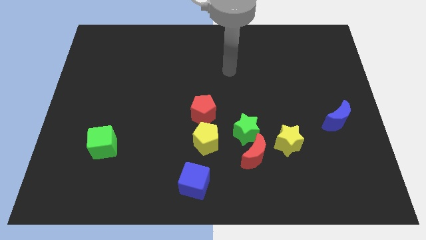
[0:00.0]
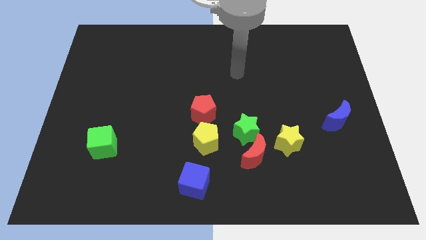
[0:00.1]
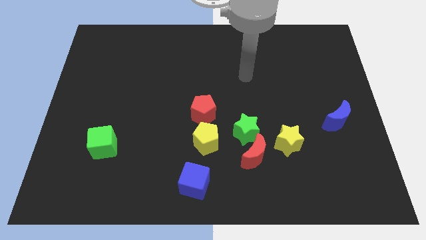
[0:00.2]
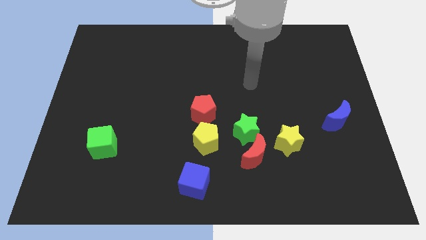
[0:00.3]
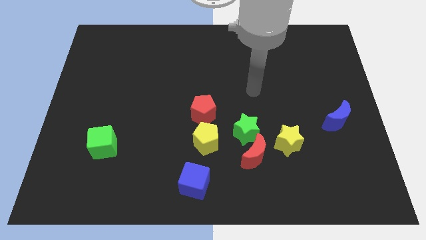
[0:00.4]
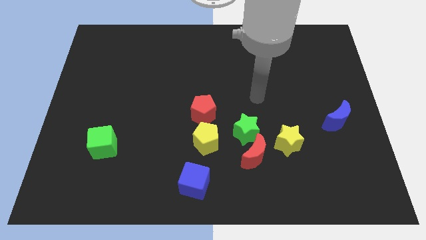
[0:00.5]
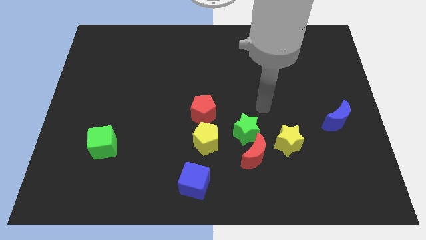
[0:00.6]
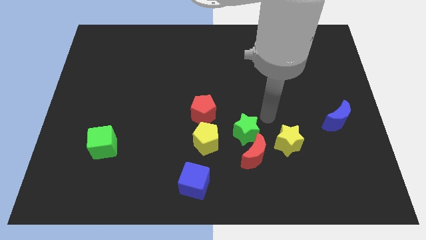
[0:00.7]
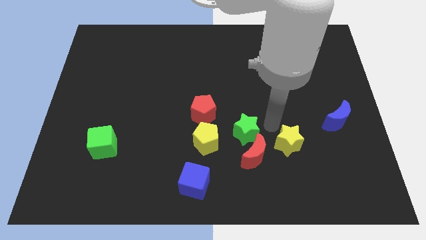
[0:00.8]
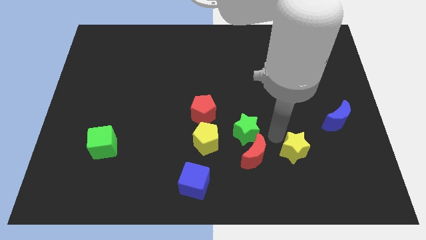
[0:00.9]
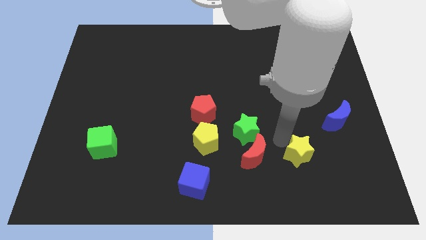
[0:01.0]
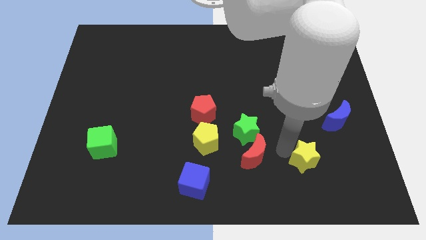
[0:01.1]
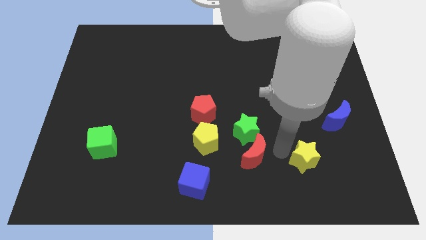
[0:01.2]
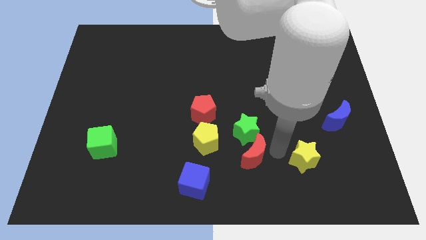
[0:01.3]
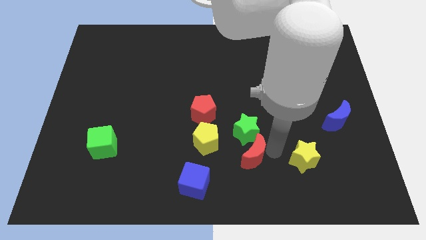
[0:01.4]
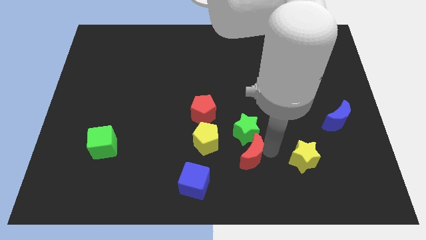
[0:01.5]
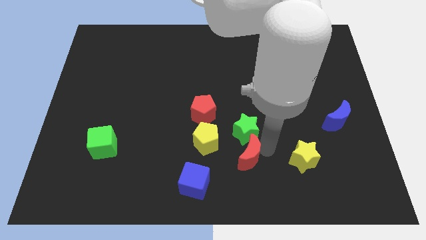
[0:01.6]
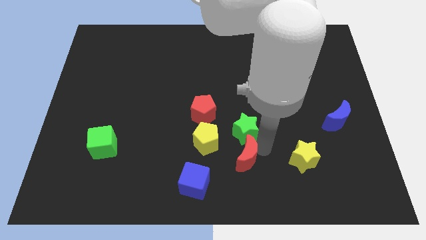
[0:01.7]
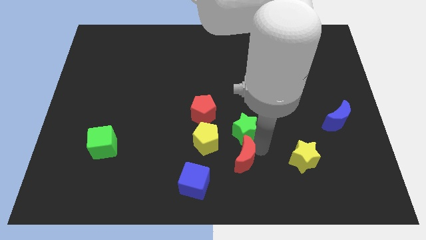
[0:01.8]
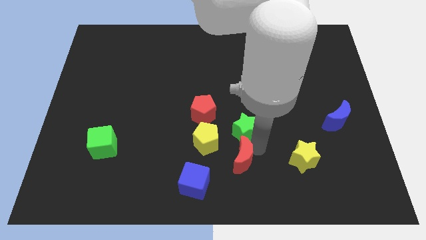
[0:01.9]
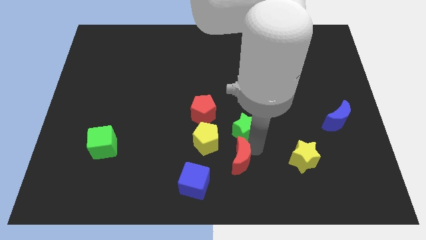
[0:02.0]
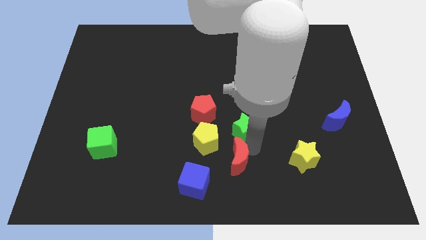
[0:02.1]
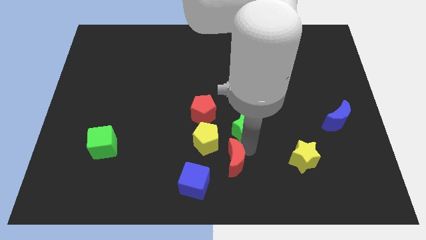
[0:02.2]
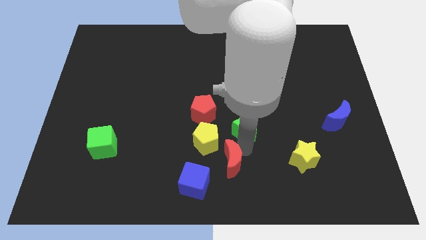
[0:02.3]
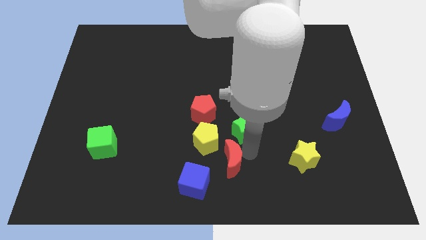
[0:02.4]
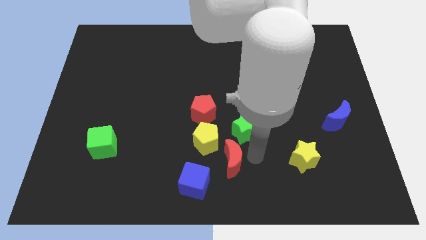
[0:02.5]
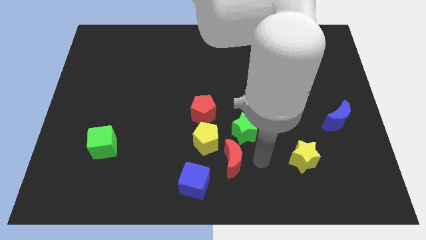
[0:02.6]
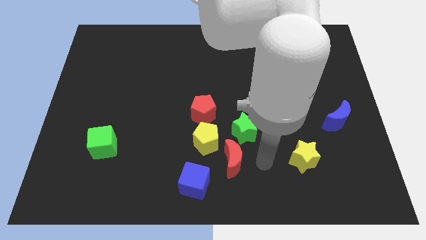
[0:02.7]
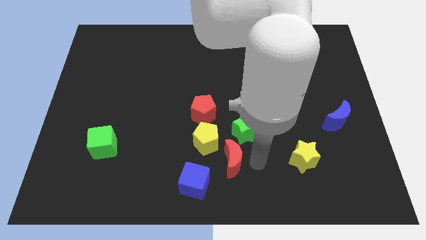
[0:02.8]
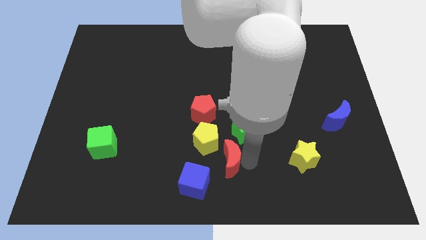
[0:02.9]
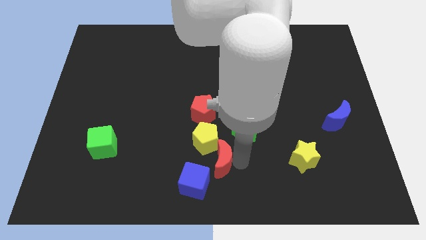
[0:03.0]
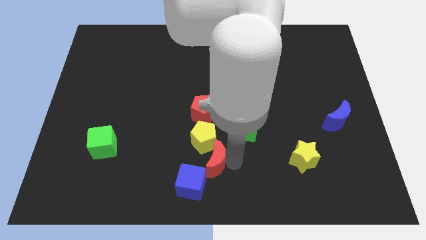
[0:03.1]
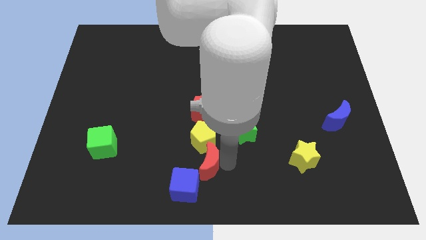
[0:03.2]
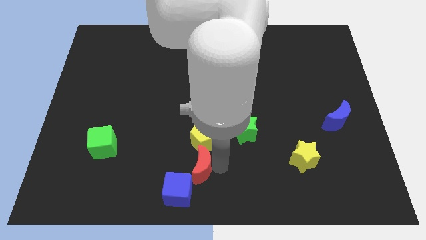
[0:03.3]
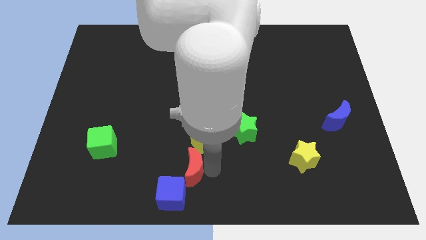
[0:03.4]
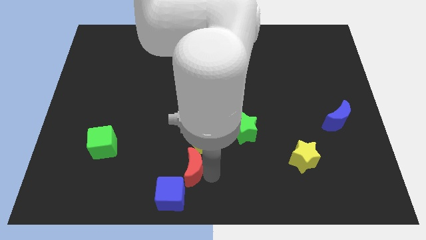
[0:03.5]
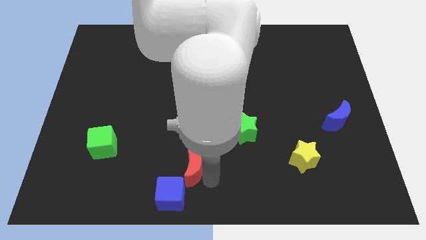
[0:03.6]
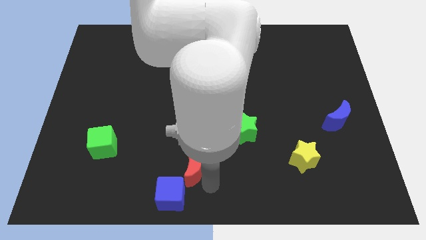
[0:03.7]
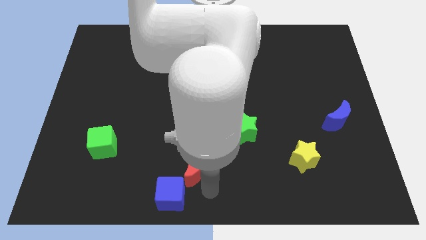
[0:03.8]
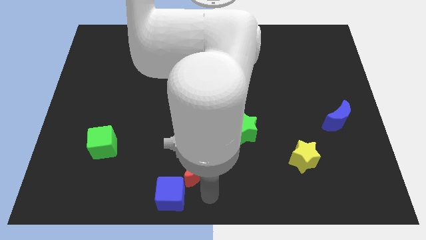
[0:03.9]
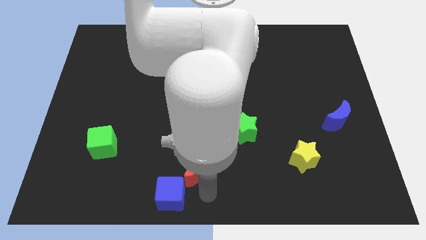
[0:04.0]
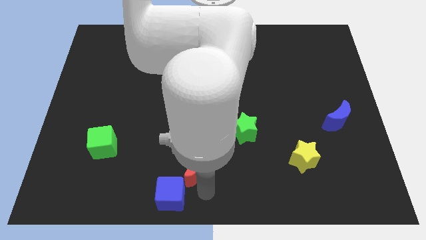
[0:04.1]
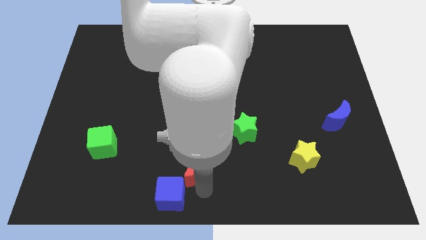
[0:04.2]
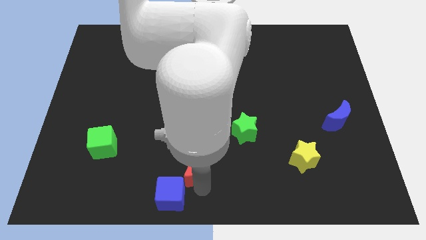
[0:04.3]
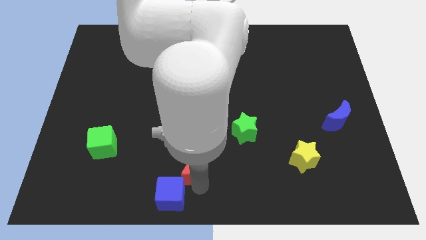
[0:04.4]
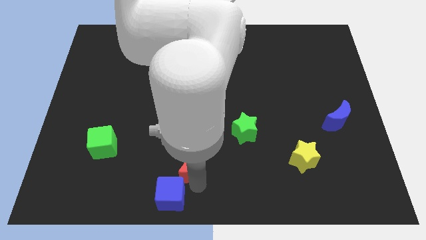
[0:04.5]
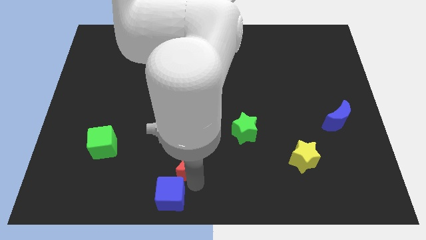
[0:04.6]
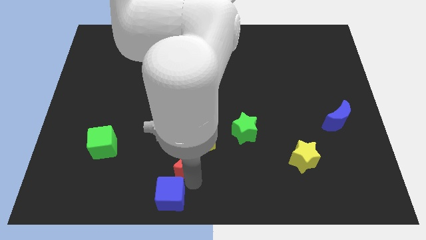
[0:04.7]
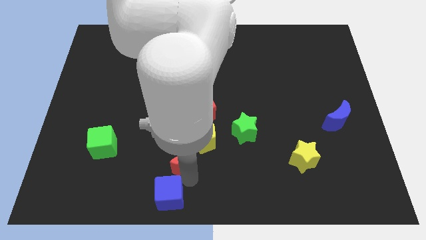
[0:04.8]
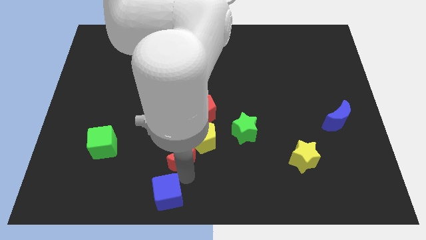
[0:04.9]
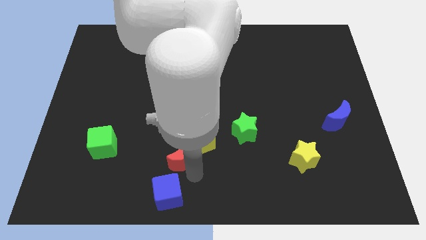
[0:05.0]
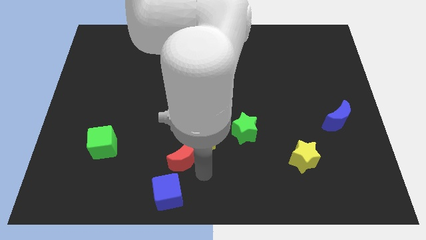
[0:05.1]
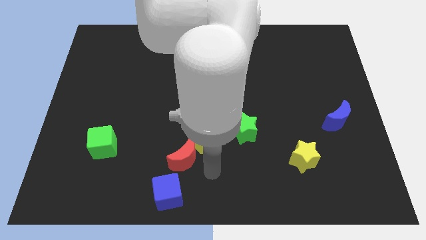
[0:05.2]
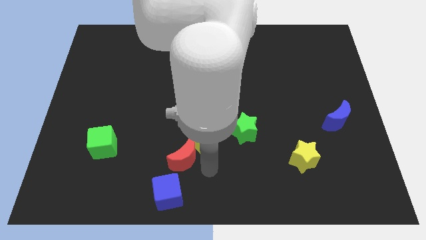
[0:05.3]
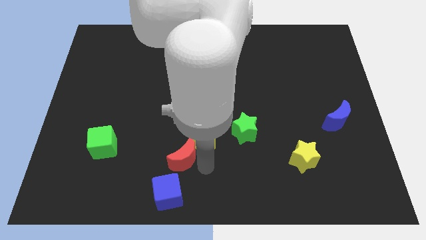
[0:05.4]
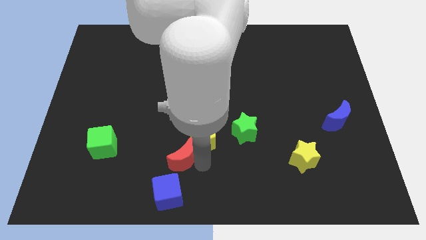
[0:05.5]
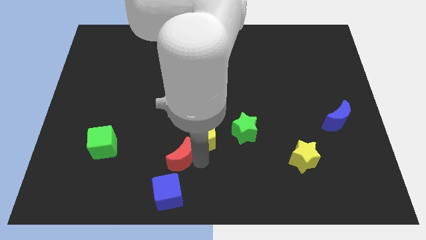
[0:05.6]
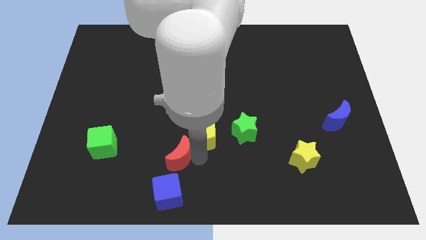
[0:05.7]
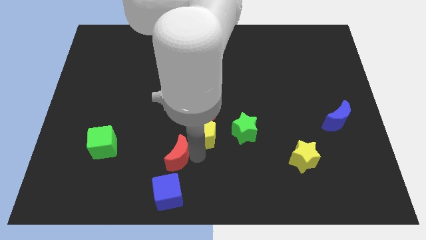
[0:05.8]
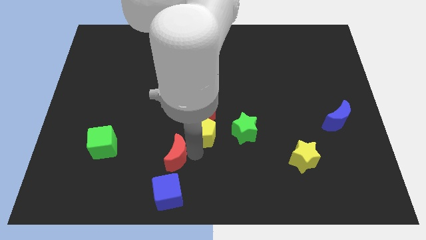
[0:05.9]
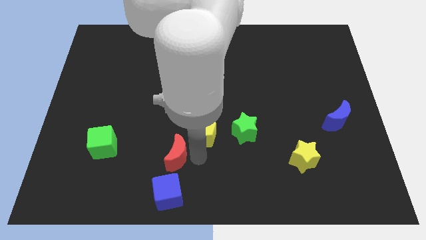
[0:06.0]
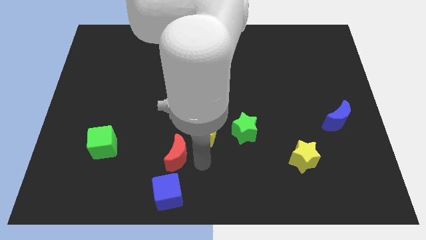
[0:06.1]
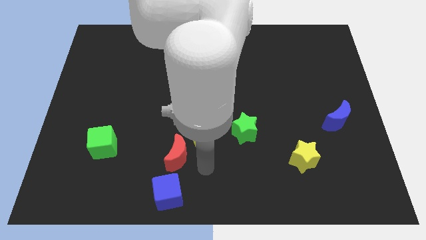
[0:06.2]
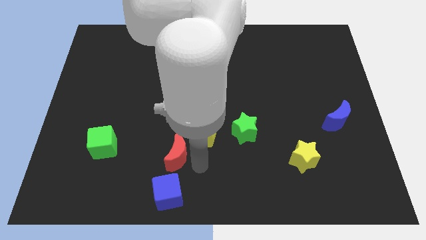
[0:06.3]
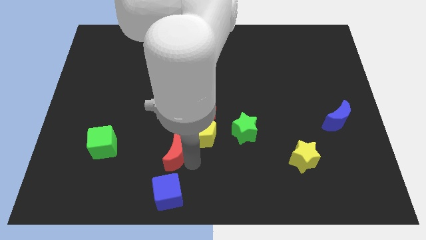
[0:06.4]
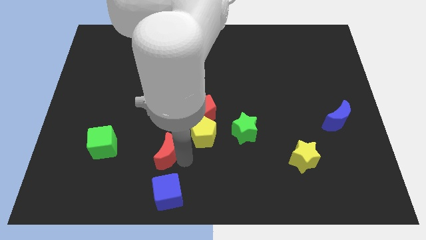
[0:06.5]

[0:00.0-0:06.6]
push the red moon to the right of the green cube

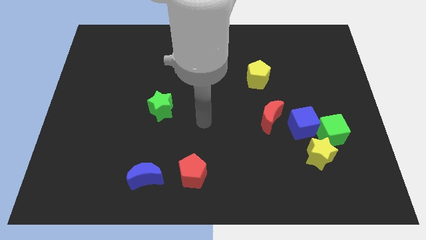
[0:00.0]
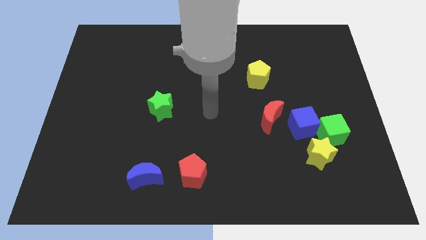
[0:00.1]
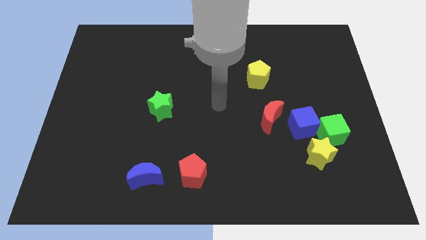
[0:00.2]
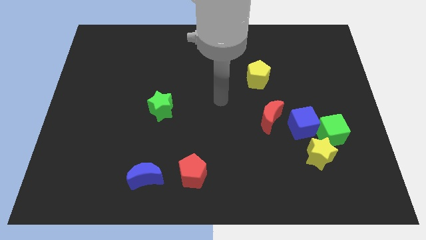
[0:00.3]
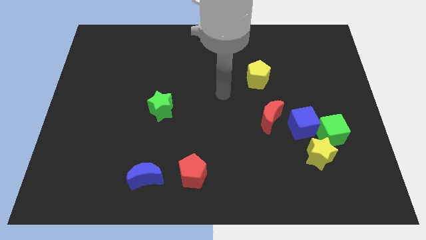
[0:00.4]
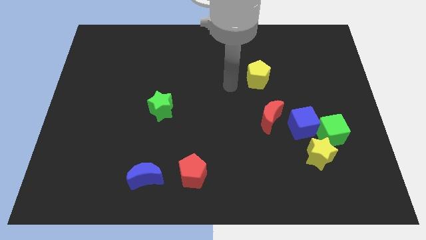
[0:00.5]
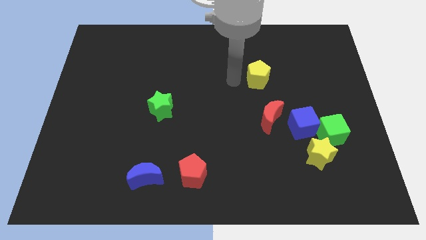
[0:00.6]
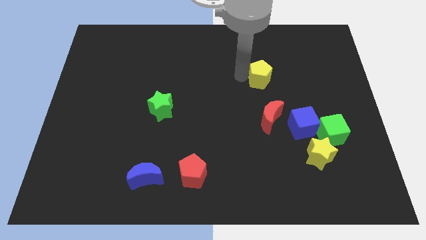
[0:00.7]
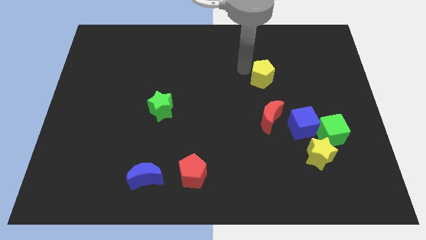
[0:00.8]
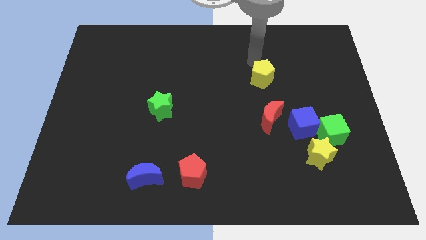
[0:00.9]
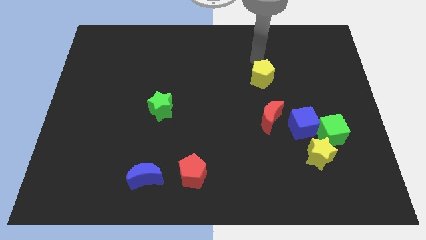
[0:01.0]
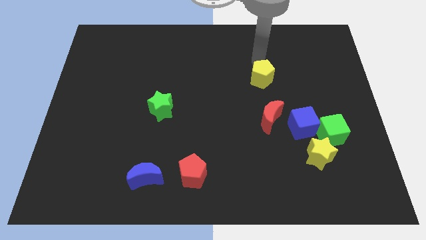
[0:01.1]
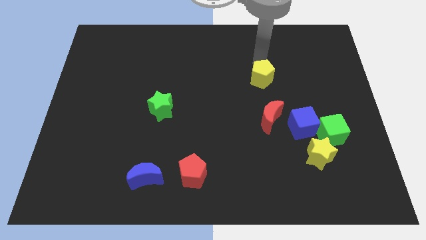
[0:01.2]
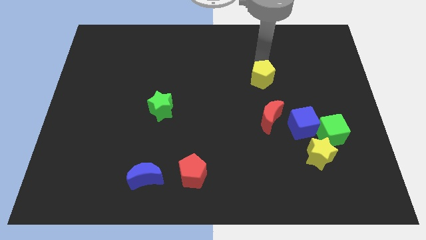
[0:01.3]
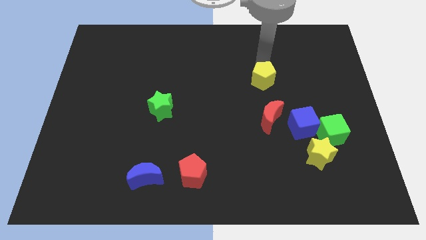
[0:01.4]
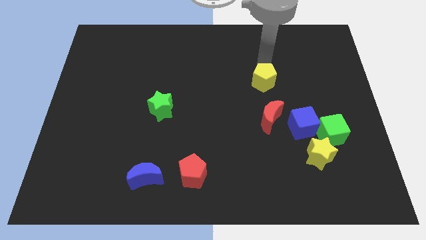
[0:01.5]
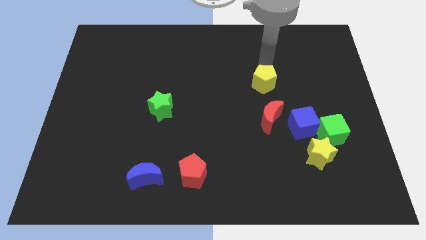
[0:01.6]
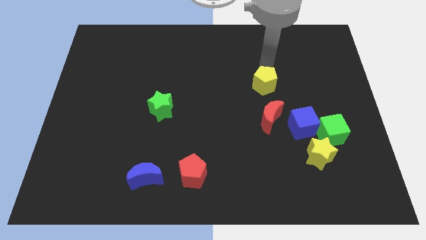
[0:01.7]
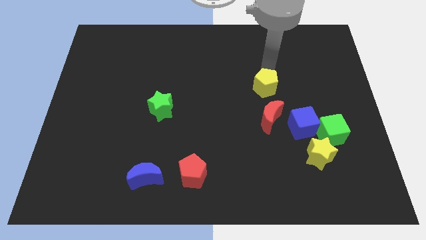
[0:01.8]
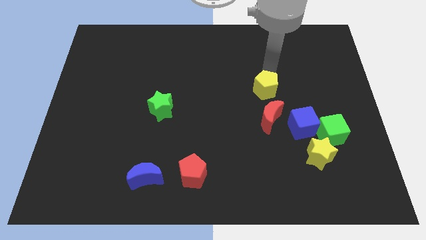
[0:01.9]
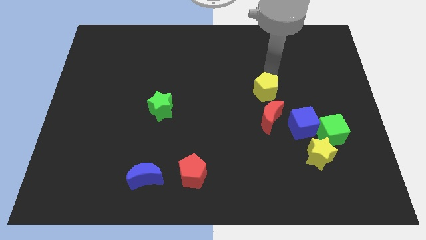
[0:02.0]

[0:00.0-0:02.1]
move the yellow pentagon to the top left side of the blue cube
